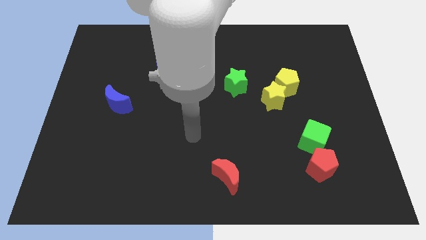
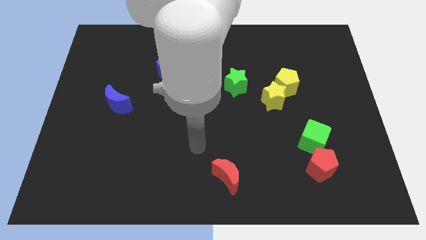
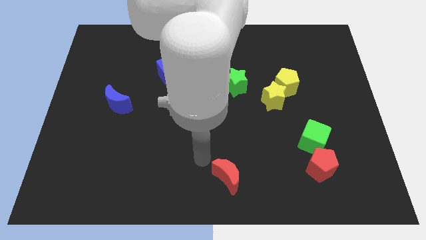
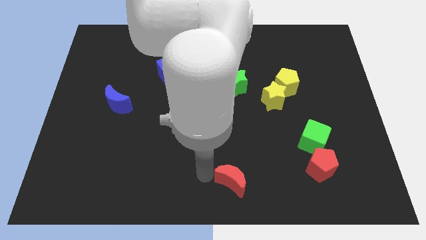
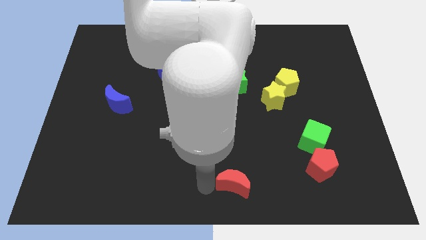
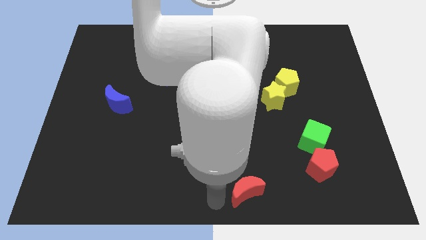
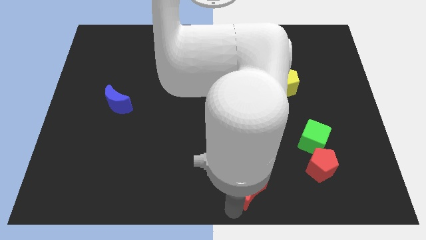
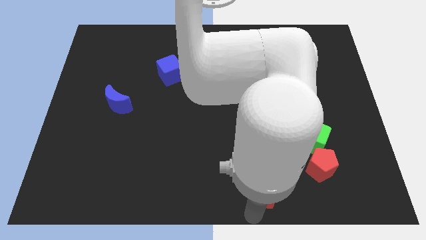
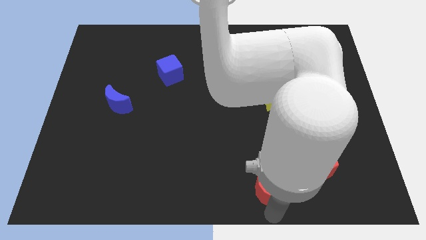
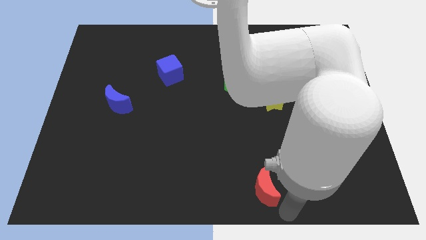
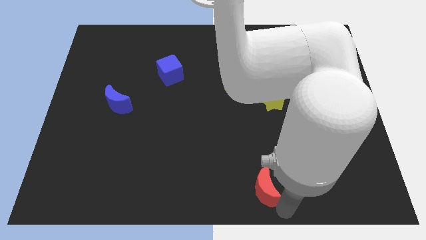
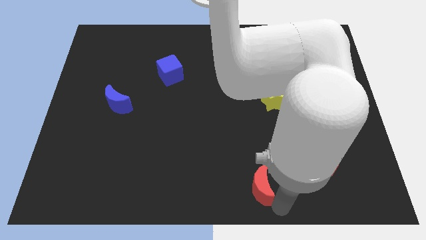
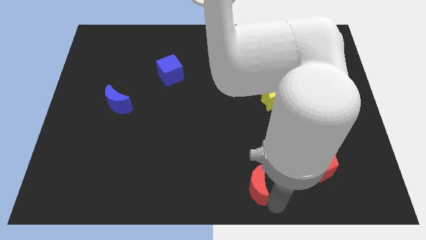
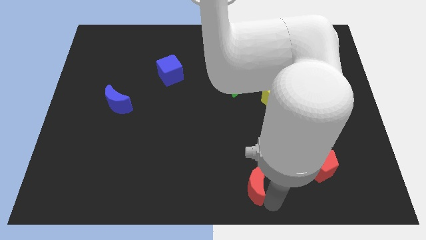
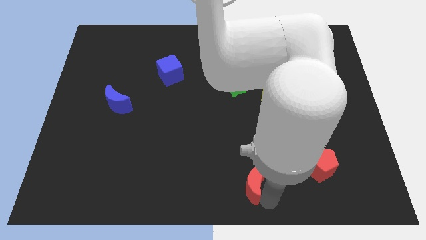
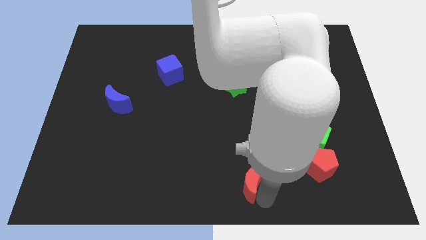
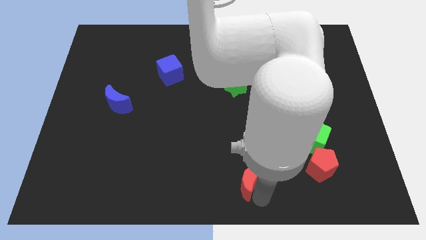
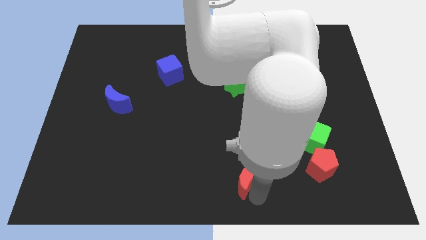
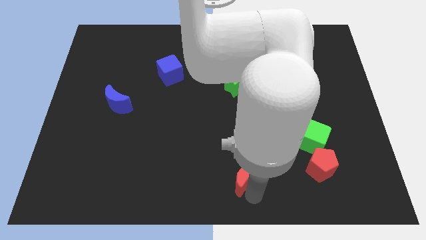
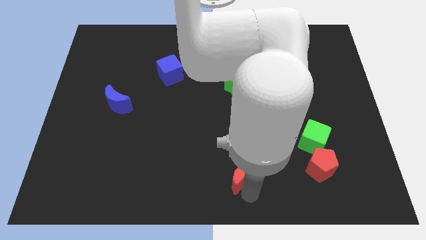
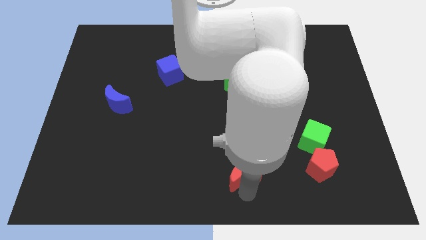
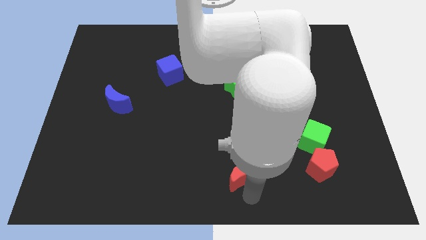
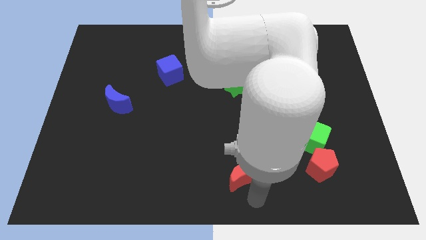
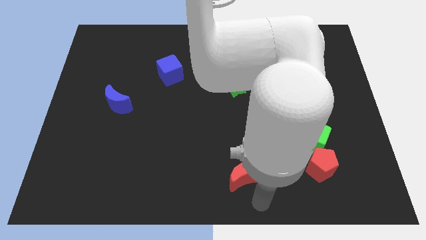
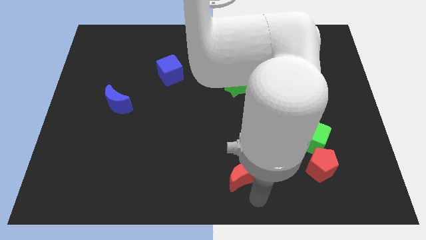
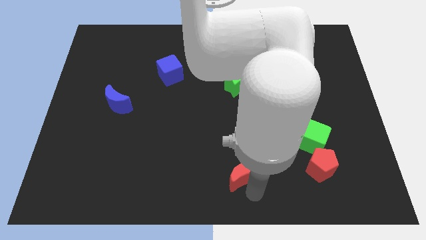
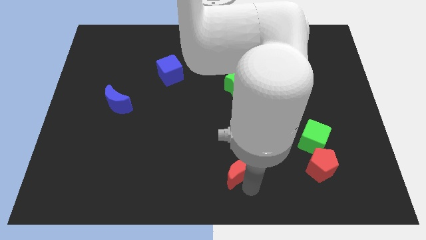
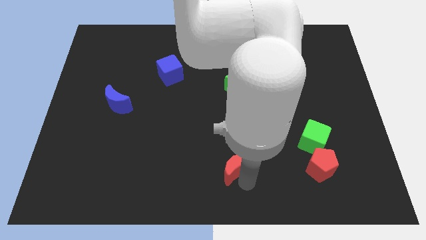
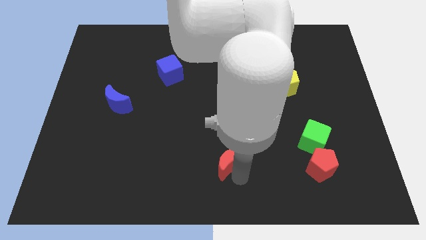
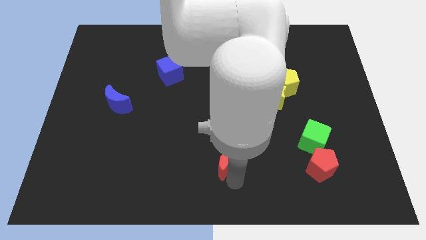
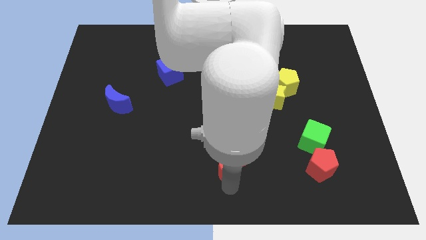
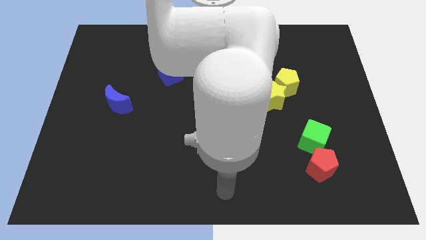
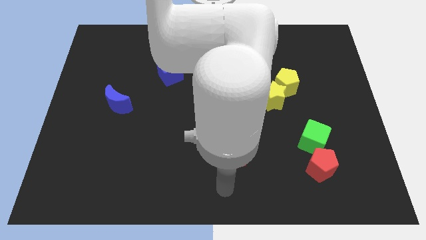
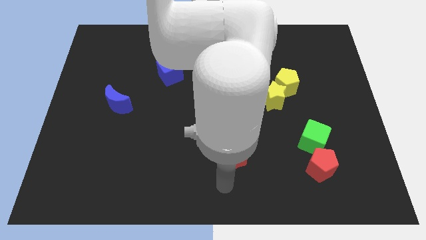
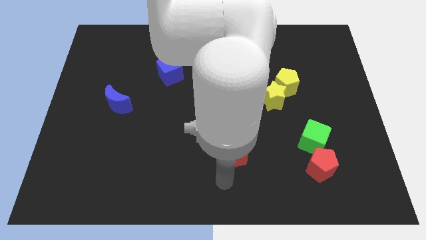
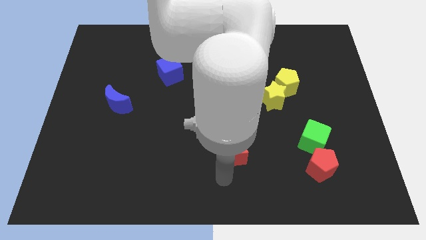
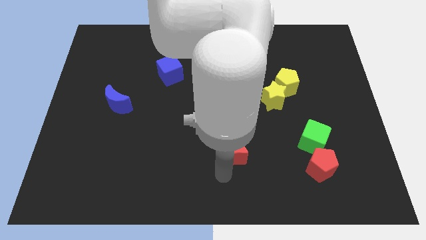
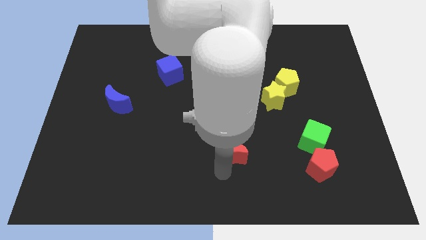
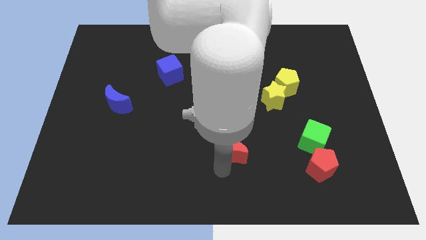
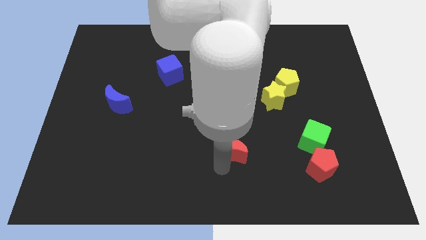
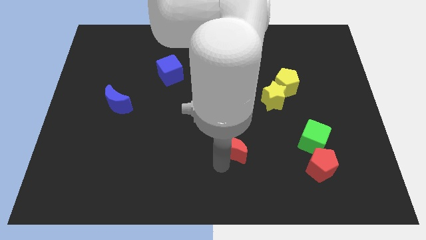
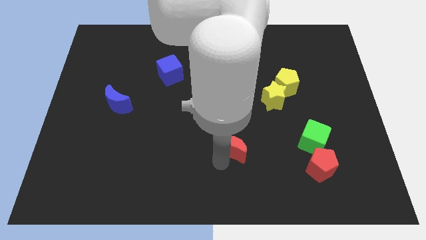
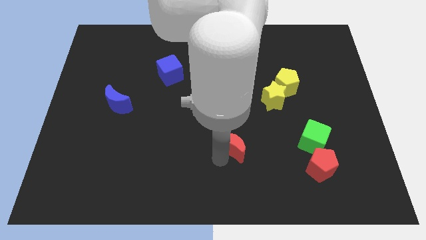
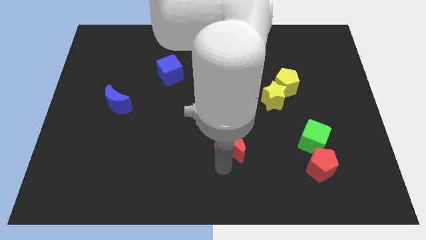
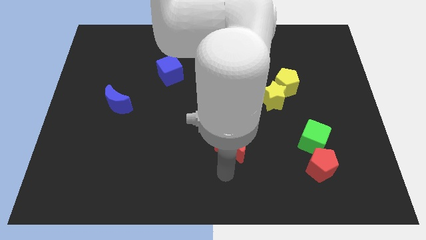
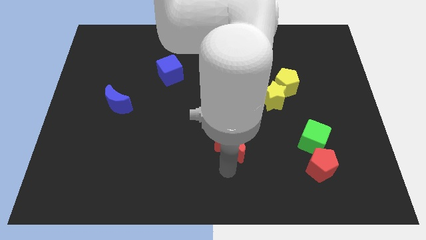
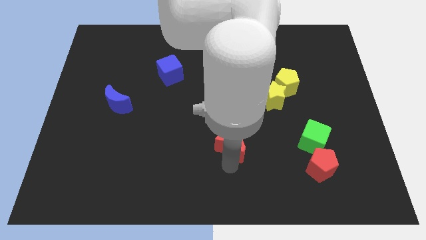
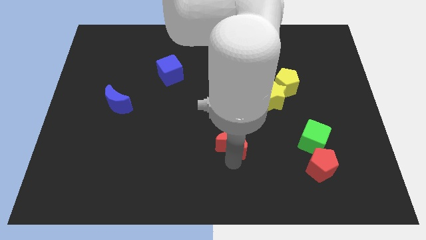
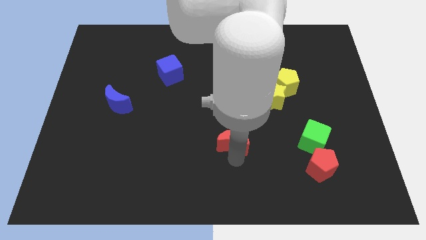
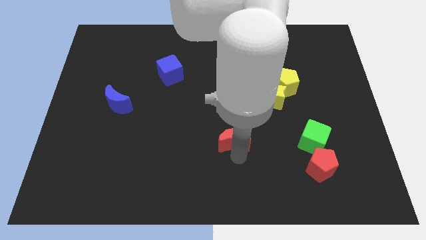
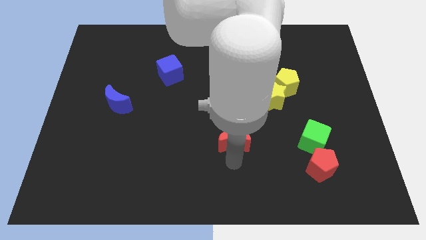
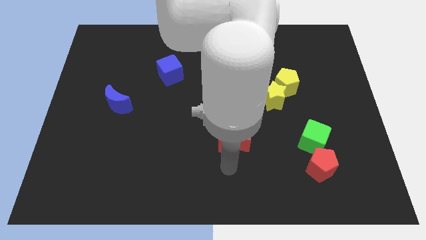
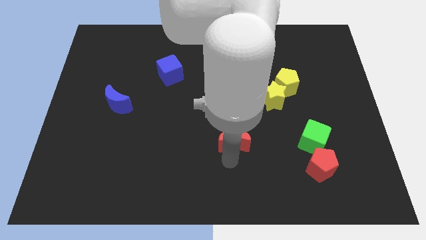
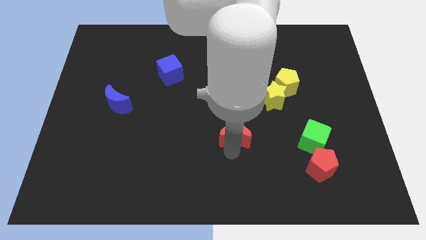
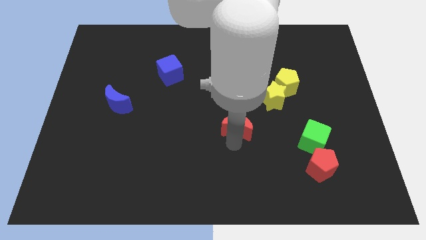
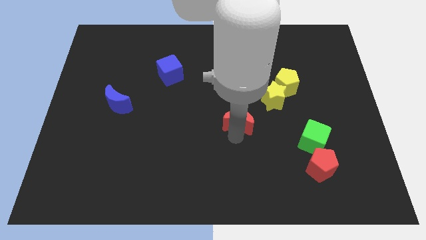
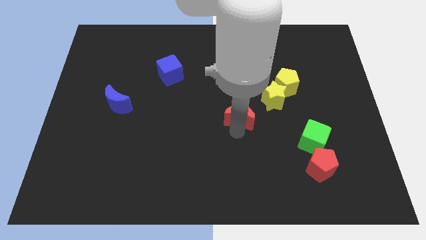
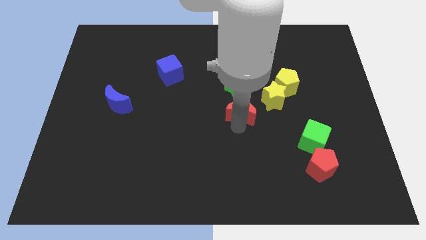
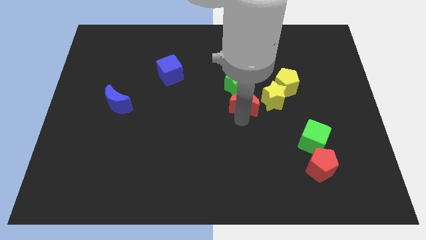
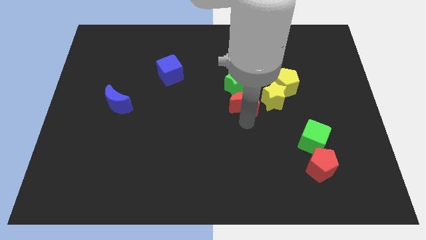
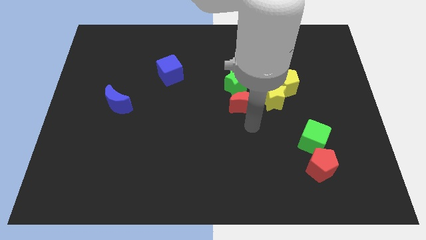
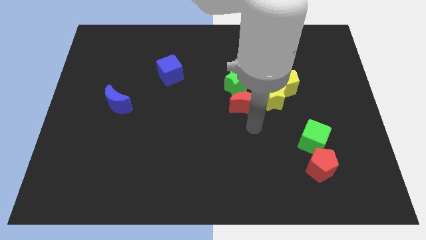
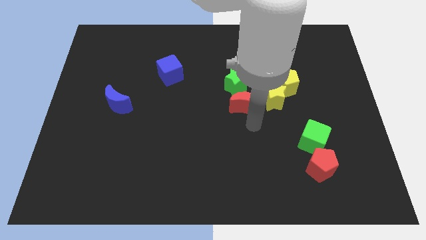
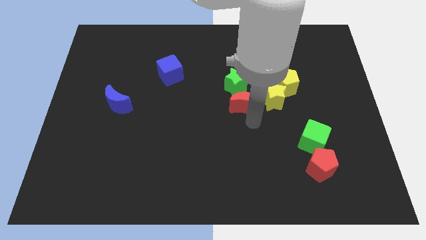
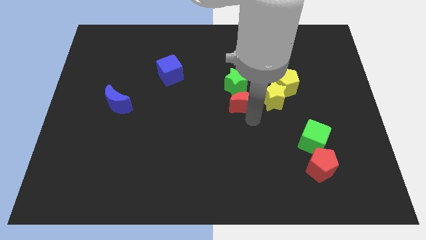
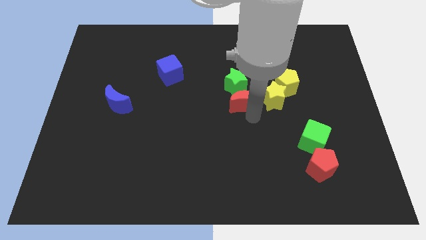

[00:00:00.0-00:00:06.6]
put the red moon close to the green star

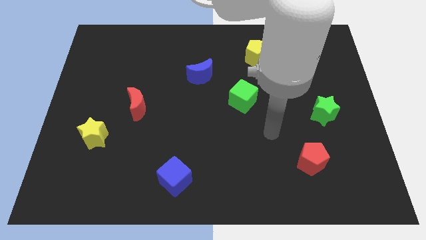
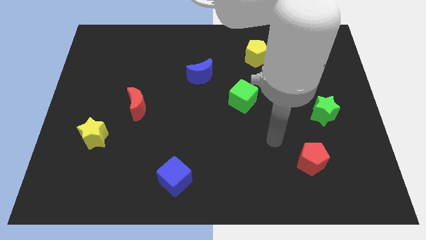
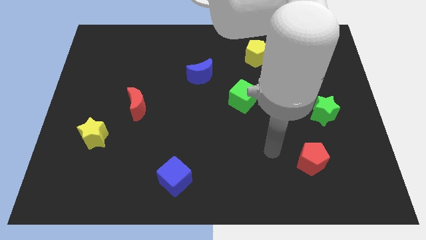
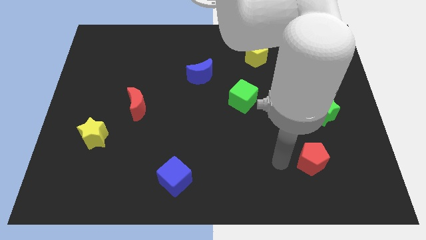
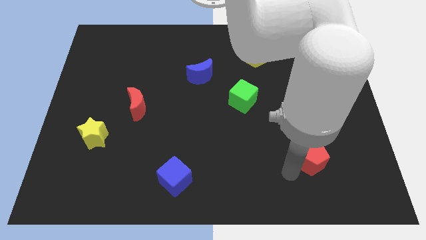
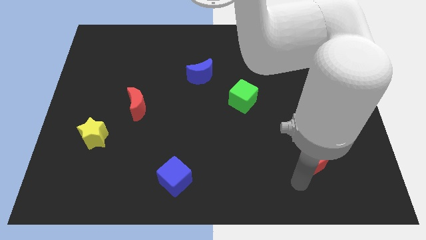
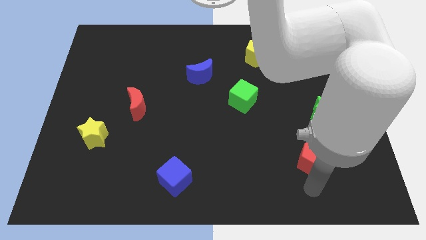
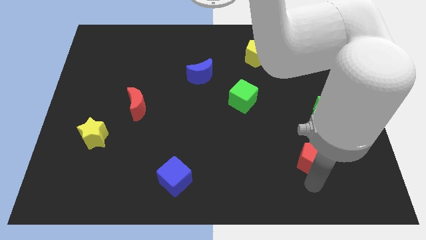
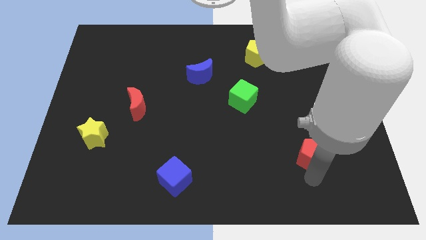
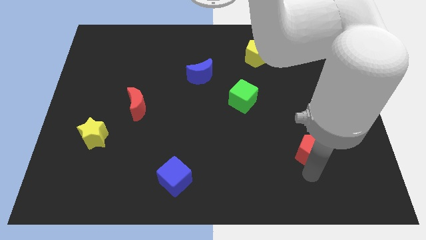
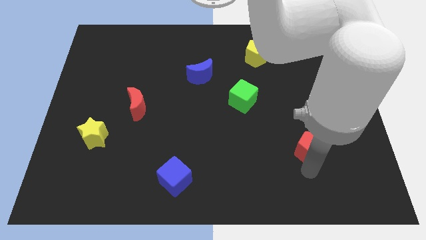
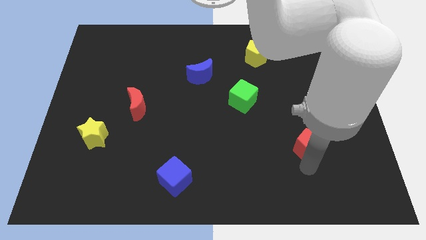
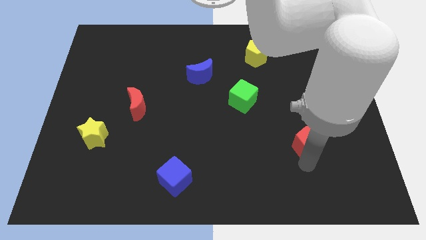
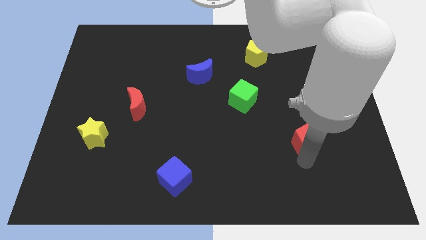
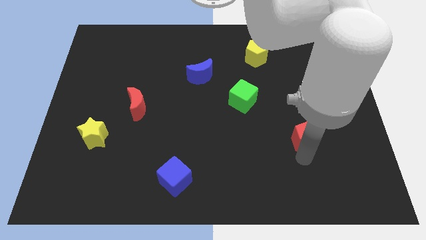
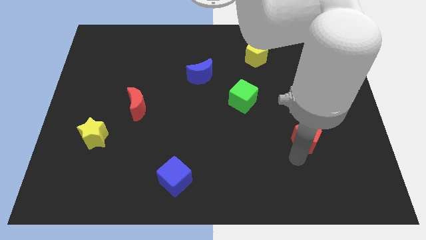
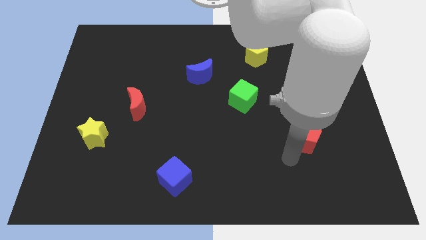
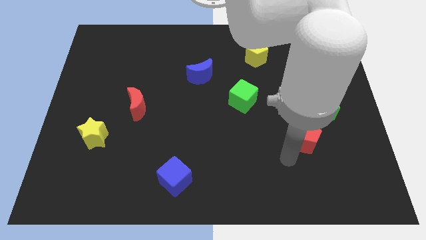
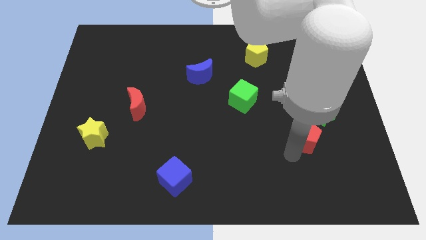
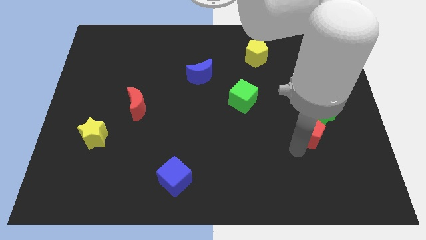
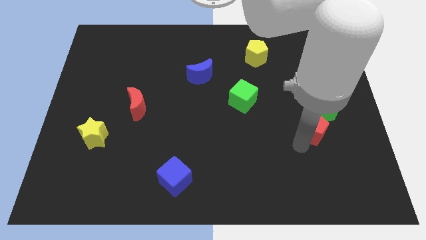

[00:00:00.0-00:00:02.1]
put the red pentagon towards the green star
